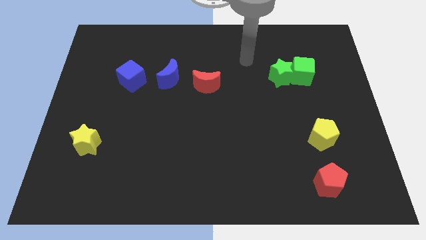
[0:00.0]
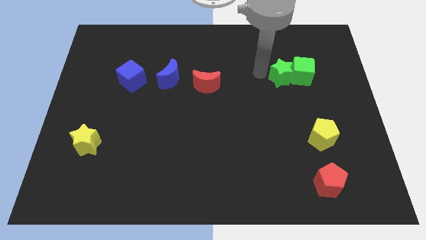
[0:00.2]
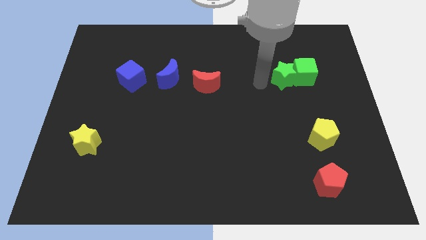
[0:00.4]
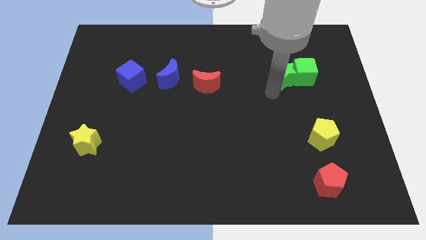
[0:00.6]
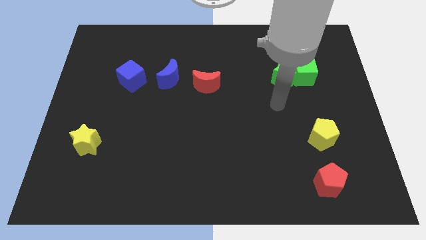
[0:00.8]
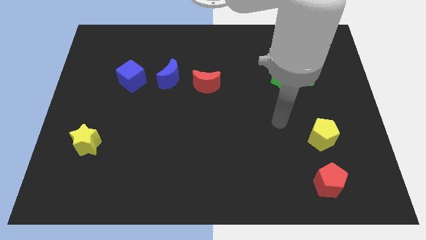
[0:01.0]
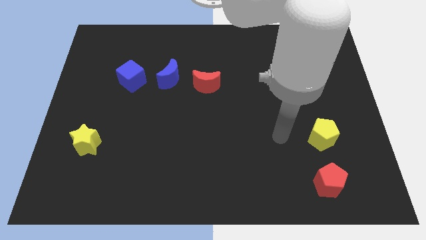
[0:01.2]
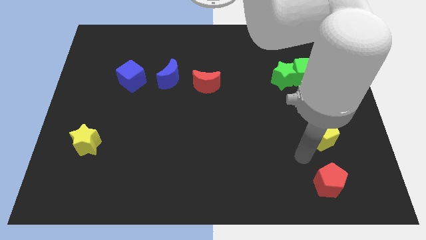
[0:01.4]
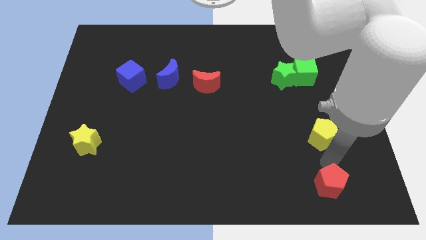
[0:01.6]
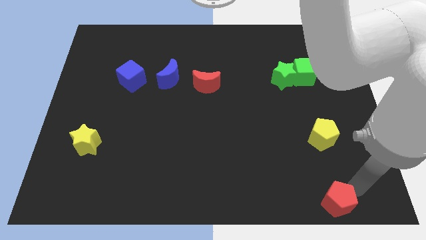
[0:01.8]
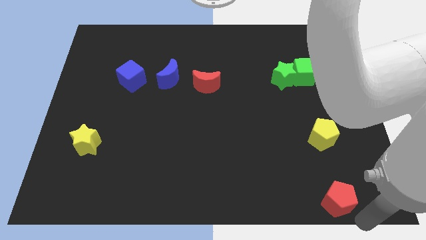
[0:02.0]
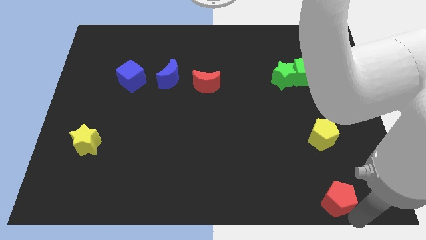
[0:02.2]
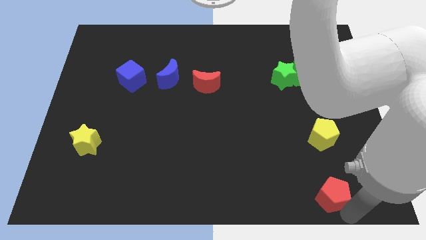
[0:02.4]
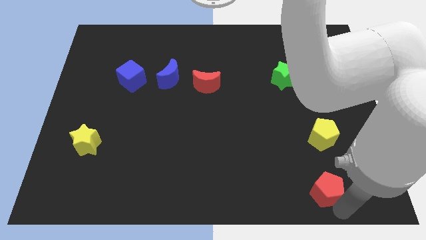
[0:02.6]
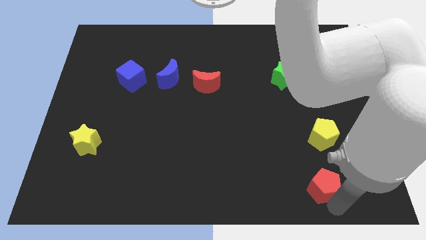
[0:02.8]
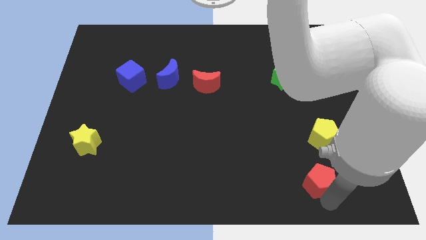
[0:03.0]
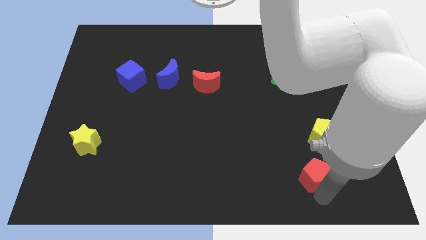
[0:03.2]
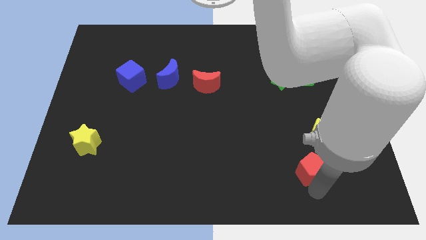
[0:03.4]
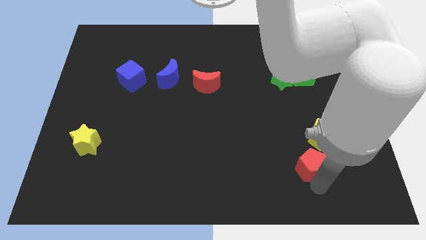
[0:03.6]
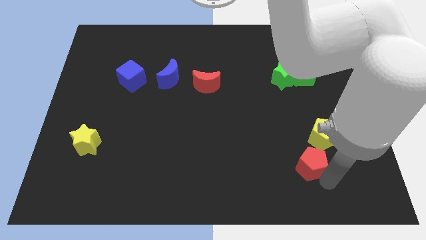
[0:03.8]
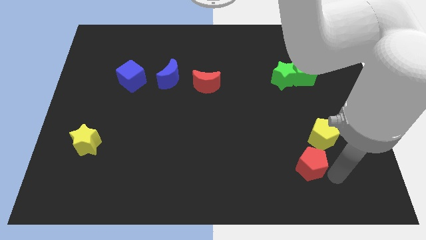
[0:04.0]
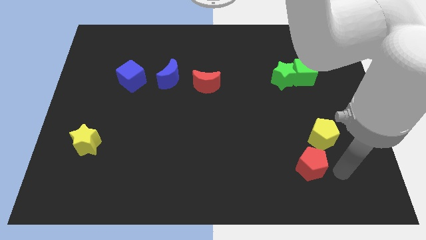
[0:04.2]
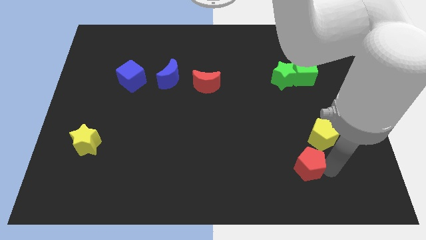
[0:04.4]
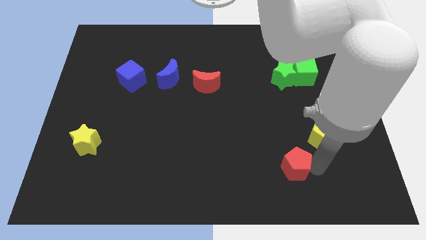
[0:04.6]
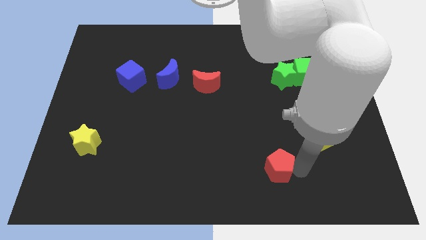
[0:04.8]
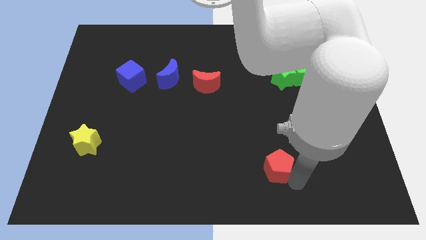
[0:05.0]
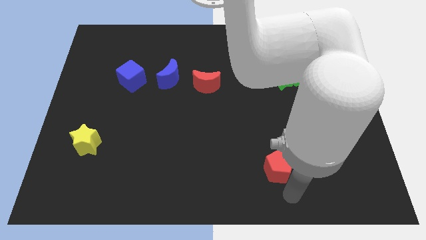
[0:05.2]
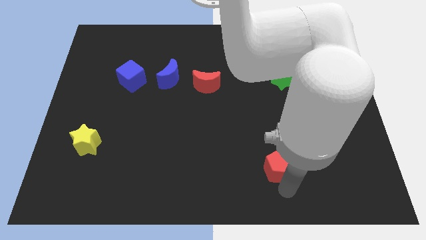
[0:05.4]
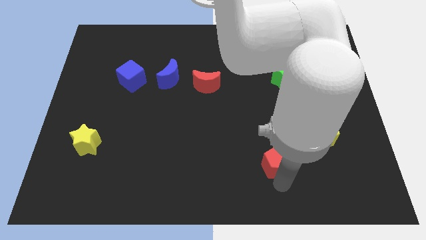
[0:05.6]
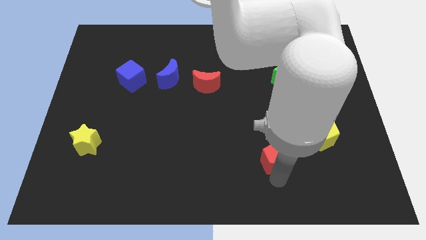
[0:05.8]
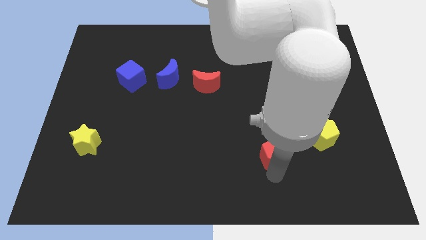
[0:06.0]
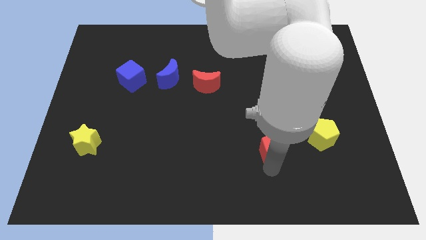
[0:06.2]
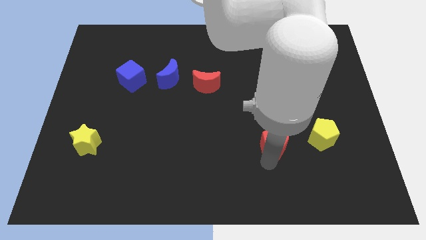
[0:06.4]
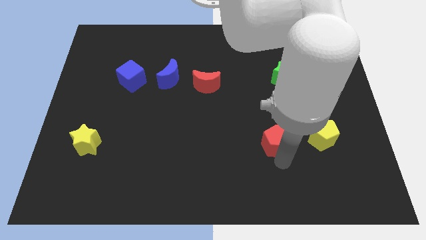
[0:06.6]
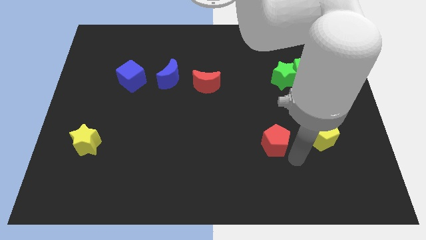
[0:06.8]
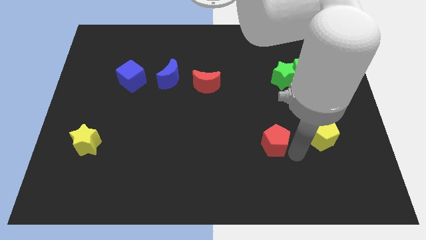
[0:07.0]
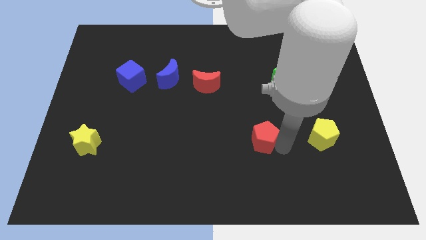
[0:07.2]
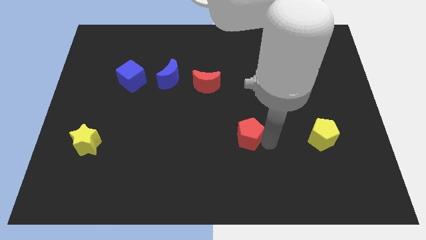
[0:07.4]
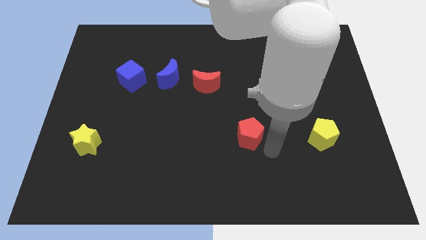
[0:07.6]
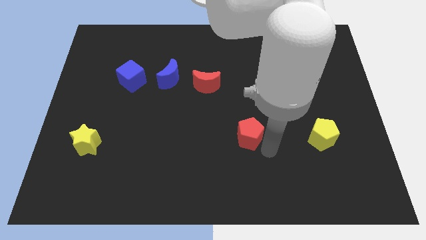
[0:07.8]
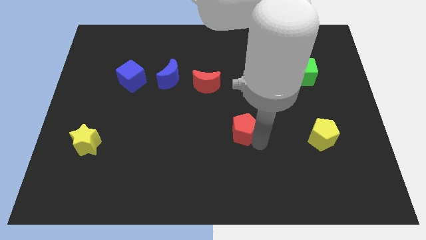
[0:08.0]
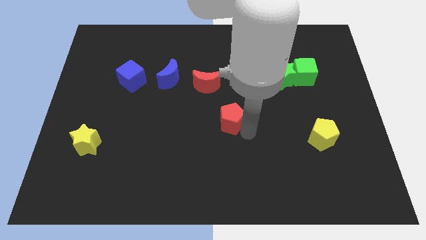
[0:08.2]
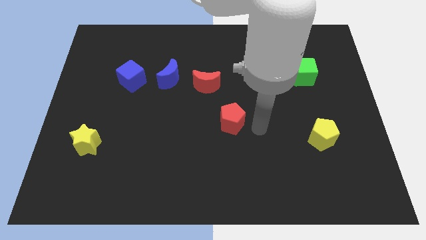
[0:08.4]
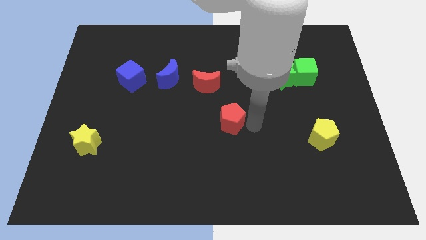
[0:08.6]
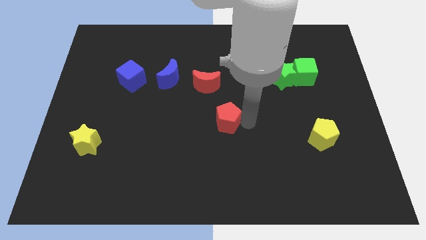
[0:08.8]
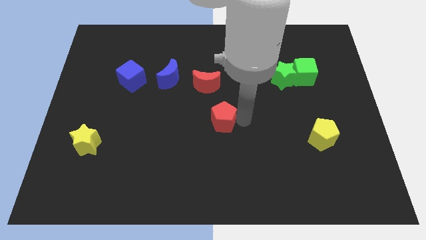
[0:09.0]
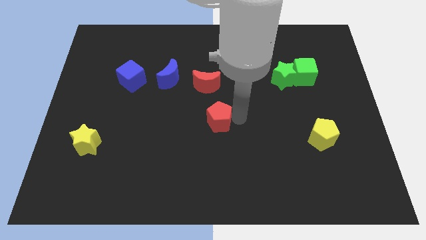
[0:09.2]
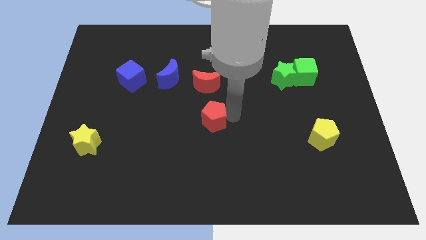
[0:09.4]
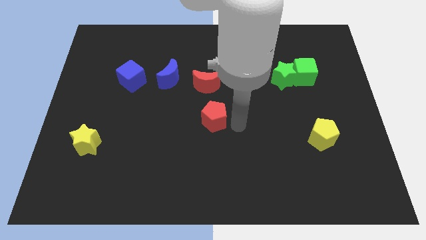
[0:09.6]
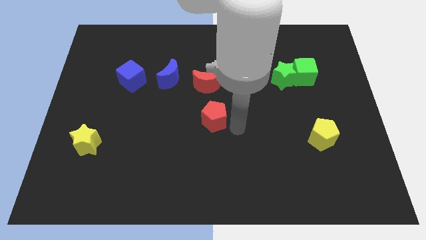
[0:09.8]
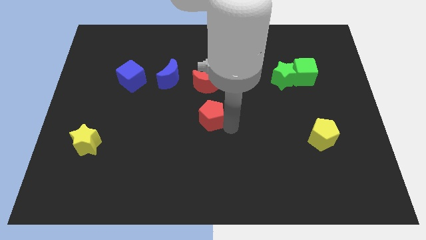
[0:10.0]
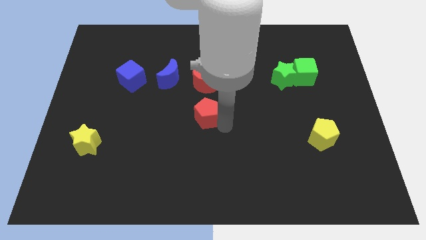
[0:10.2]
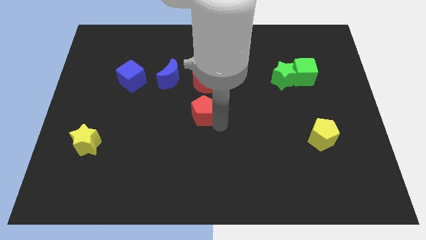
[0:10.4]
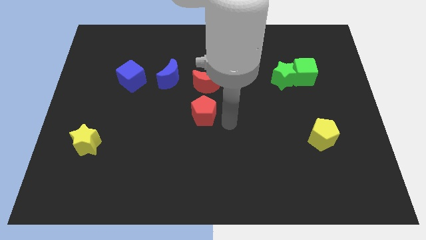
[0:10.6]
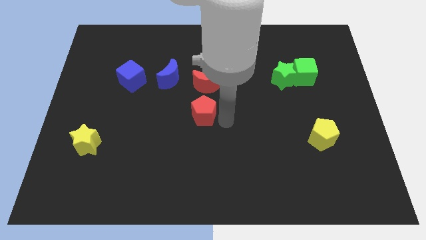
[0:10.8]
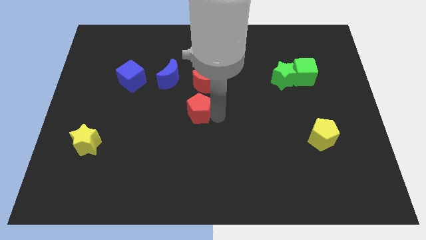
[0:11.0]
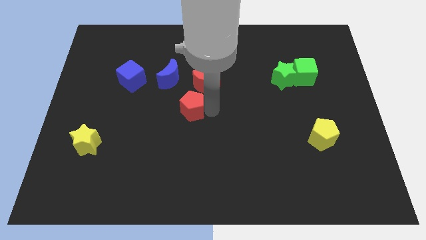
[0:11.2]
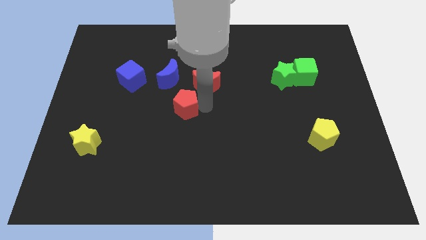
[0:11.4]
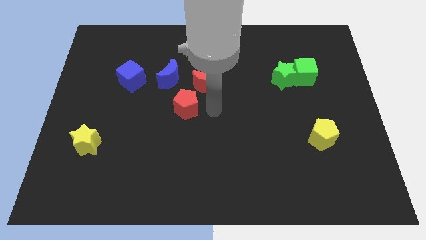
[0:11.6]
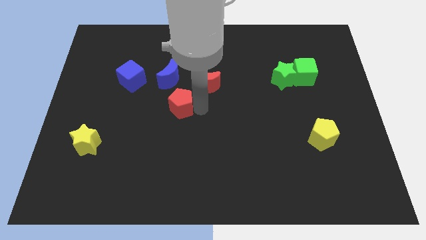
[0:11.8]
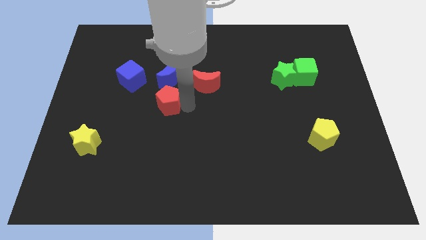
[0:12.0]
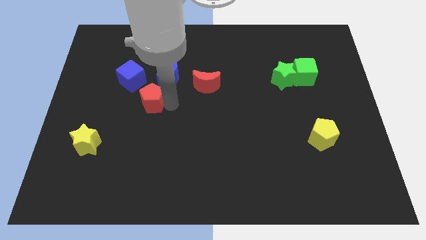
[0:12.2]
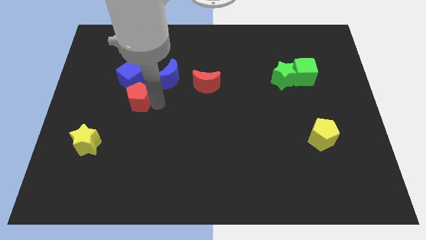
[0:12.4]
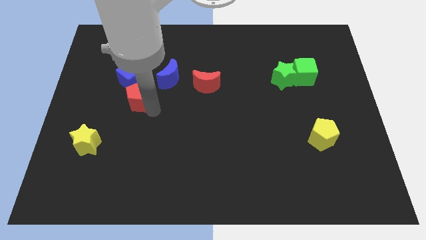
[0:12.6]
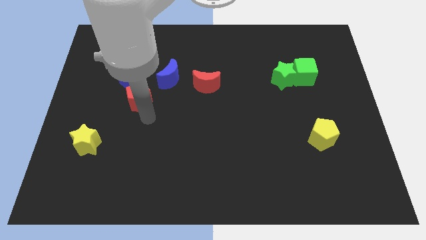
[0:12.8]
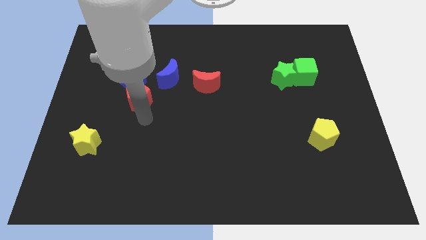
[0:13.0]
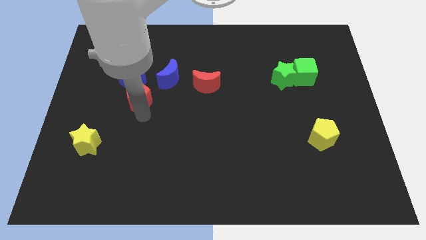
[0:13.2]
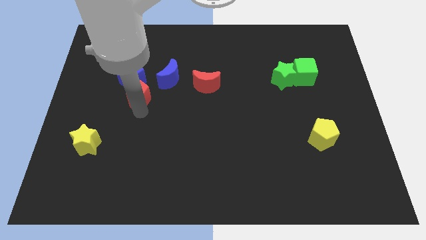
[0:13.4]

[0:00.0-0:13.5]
push the red pentagon close to the blue cube
